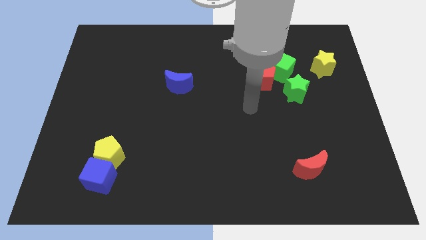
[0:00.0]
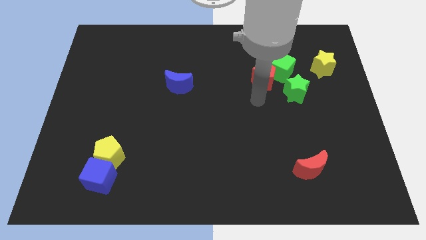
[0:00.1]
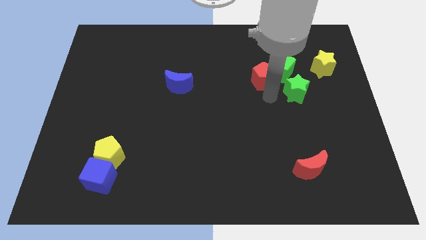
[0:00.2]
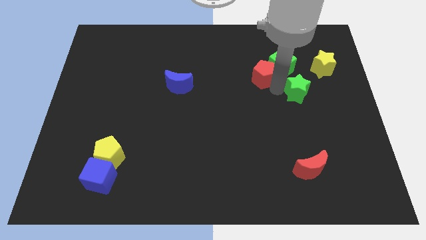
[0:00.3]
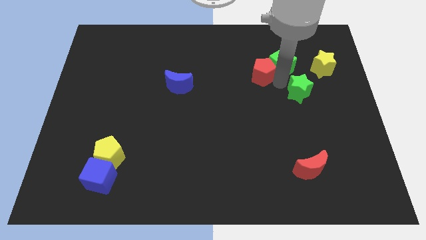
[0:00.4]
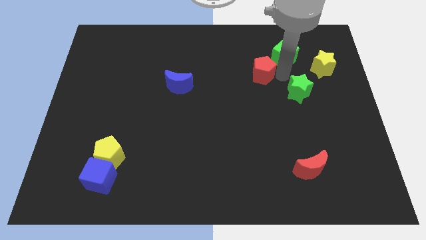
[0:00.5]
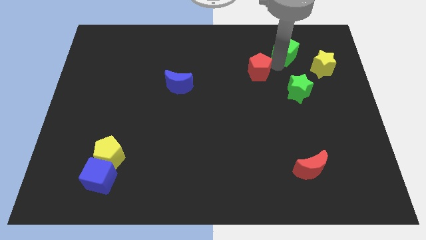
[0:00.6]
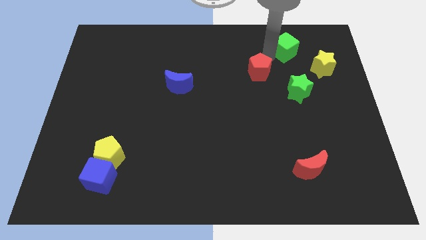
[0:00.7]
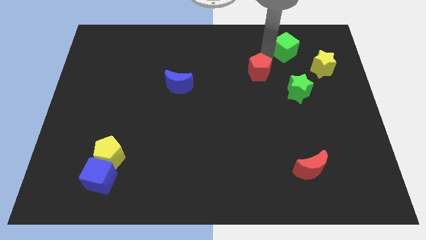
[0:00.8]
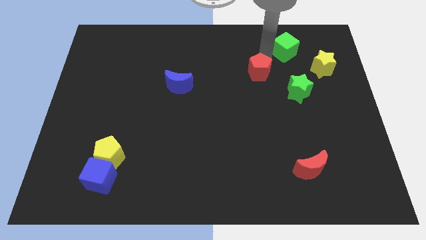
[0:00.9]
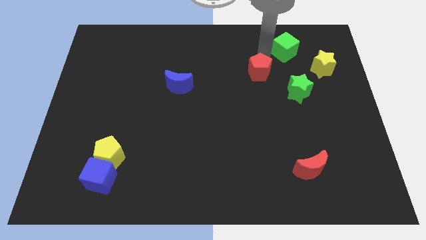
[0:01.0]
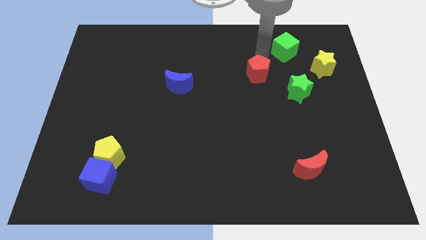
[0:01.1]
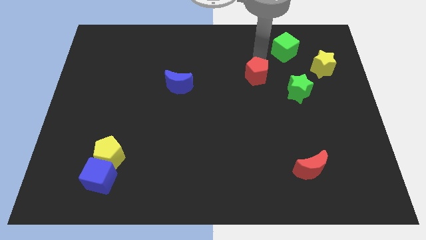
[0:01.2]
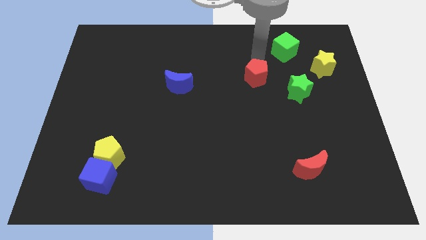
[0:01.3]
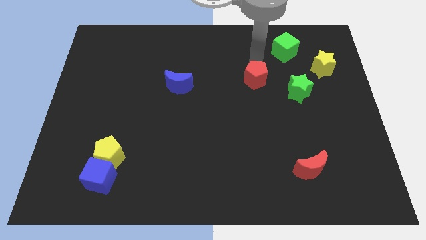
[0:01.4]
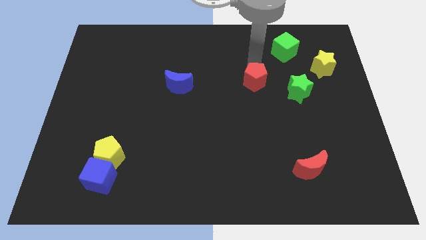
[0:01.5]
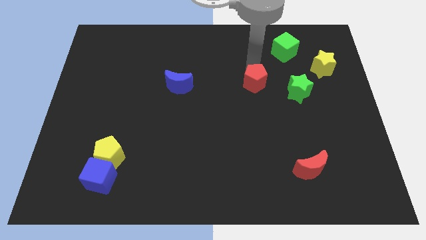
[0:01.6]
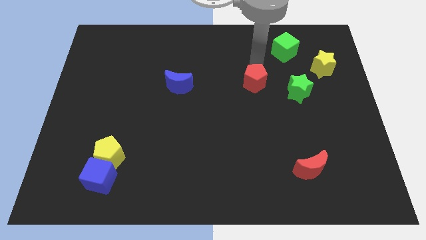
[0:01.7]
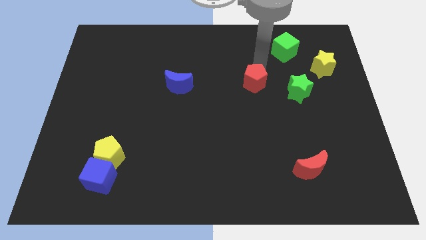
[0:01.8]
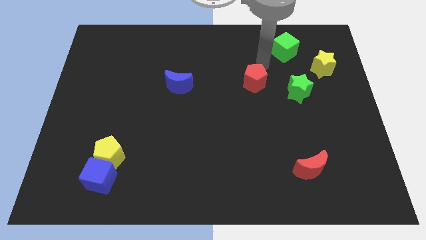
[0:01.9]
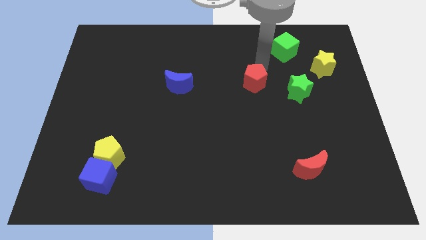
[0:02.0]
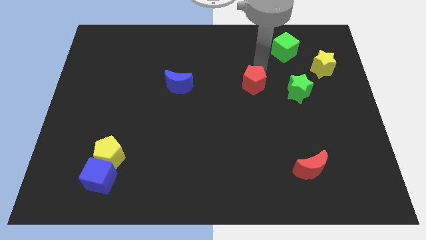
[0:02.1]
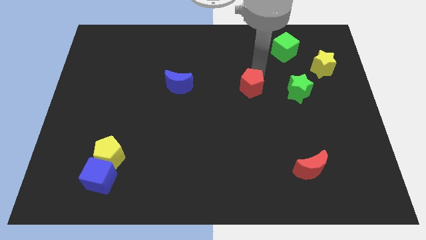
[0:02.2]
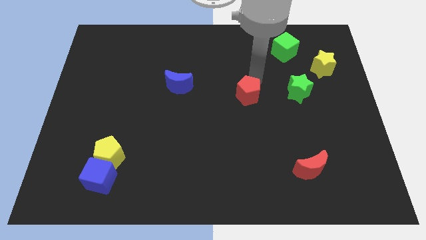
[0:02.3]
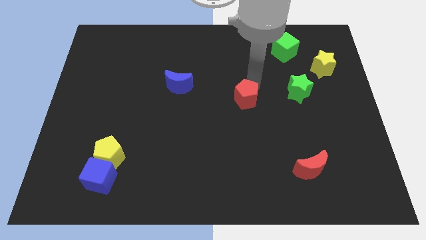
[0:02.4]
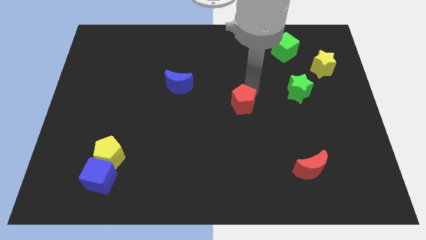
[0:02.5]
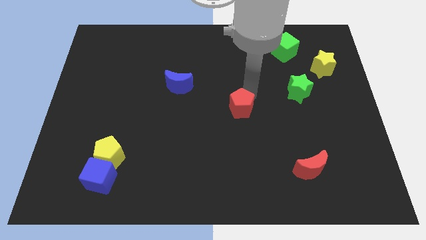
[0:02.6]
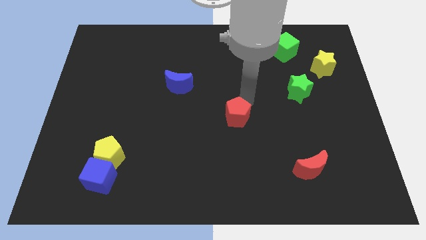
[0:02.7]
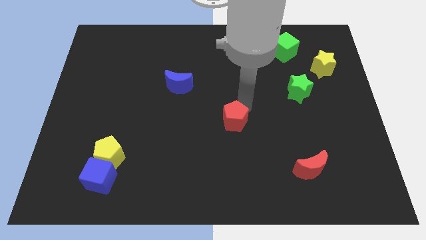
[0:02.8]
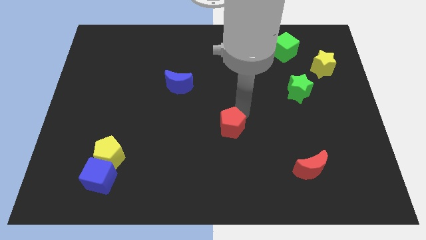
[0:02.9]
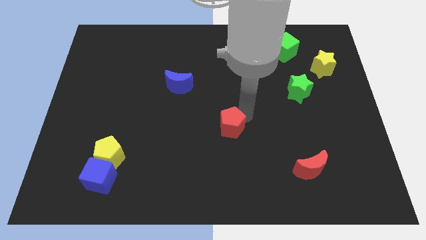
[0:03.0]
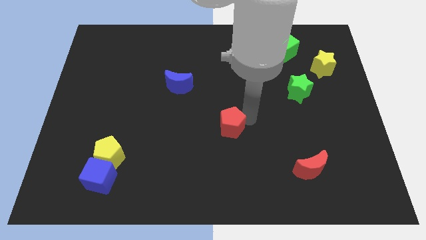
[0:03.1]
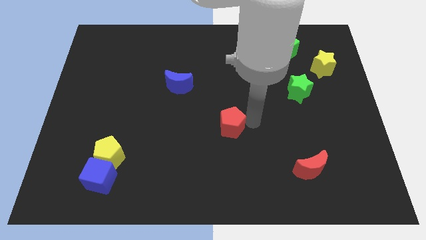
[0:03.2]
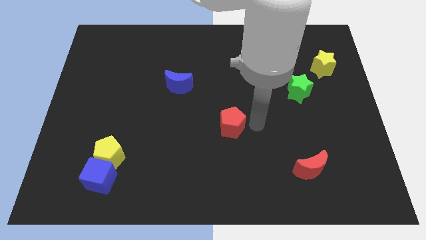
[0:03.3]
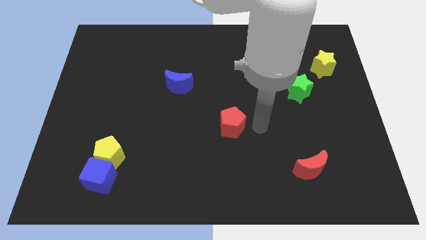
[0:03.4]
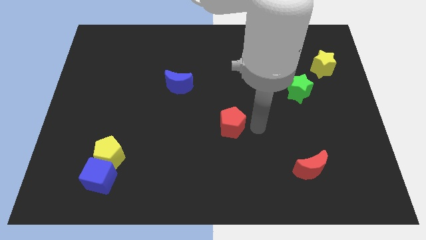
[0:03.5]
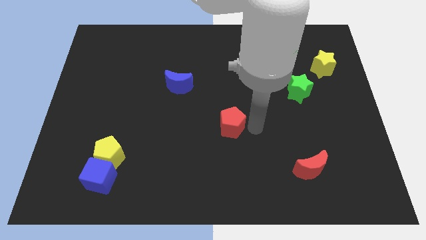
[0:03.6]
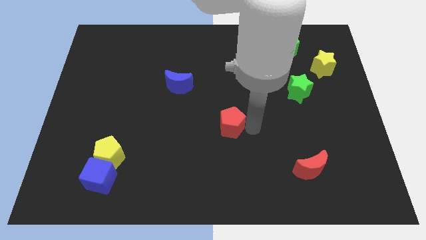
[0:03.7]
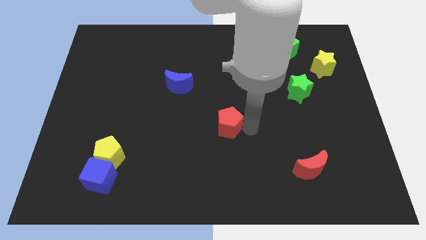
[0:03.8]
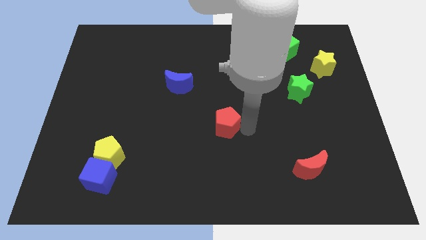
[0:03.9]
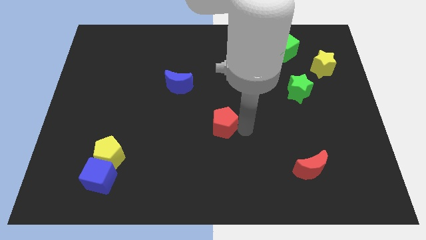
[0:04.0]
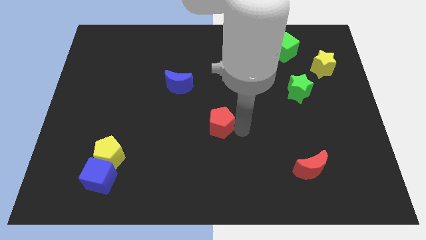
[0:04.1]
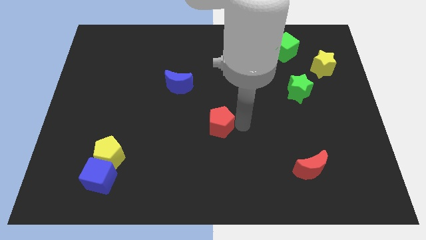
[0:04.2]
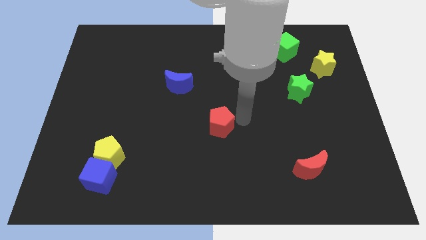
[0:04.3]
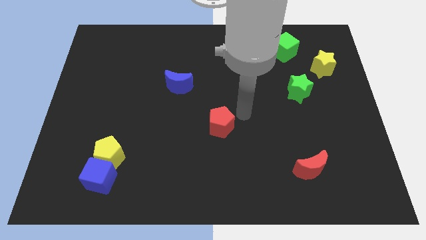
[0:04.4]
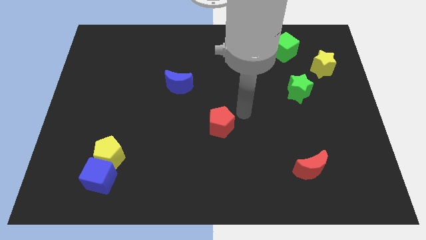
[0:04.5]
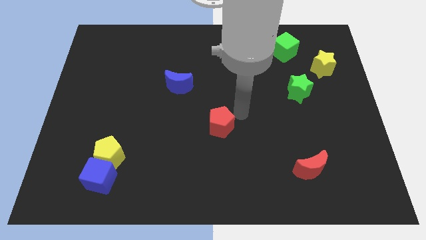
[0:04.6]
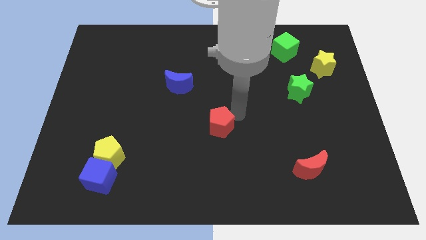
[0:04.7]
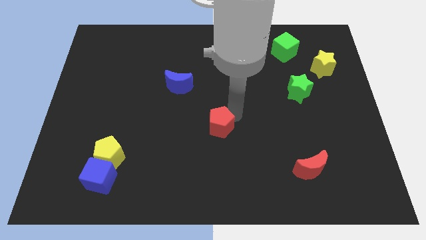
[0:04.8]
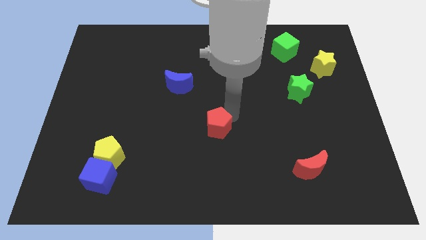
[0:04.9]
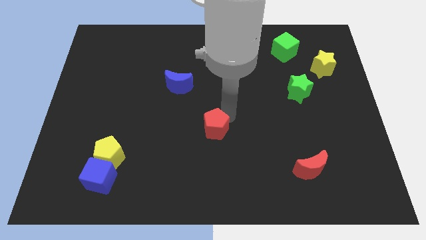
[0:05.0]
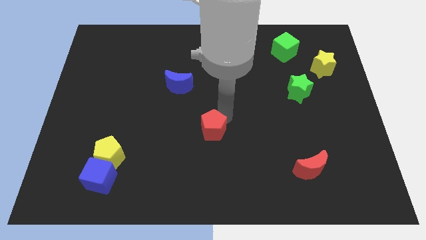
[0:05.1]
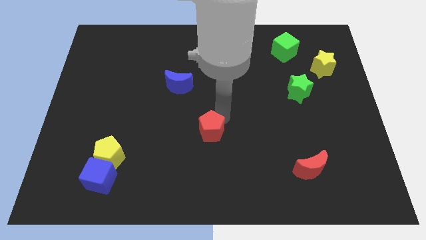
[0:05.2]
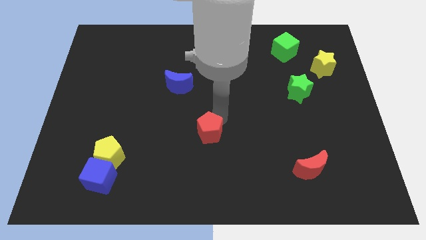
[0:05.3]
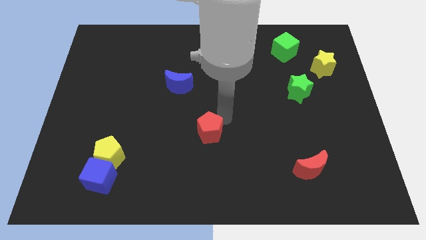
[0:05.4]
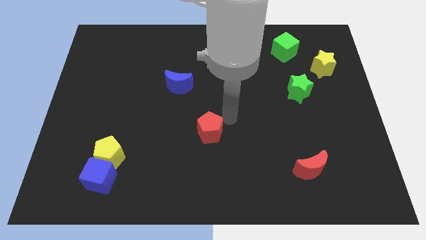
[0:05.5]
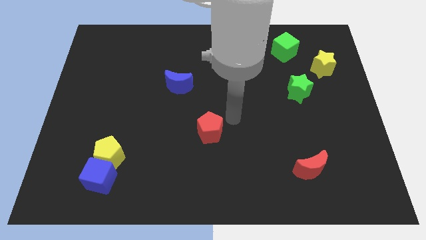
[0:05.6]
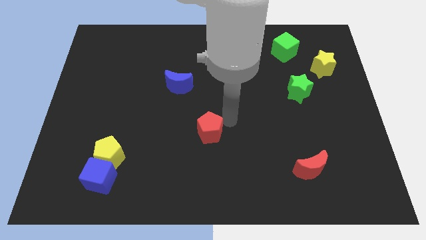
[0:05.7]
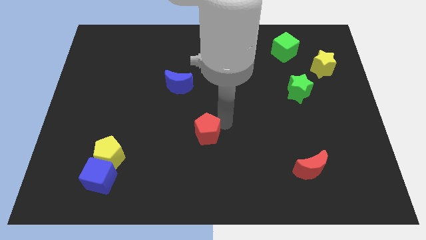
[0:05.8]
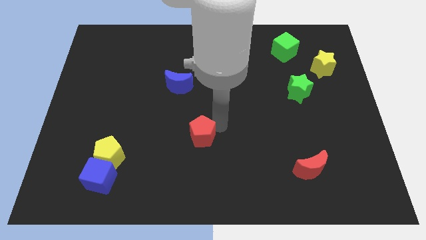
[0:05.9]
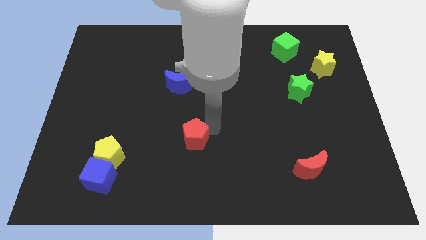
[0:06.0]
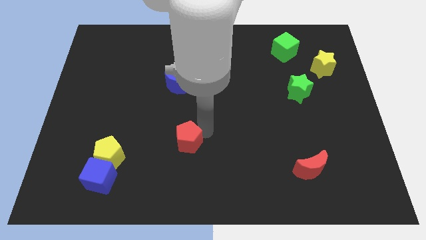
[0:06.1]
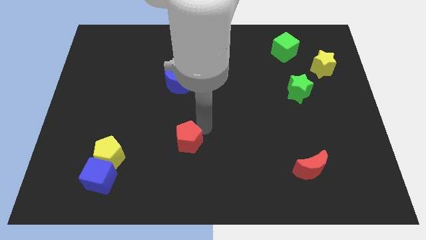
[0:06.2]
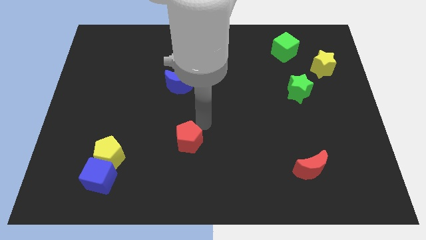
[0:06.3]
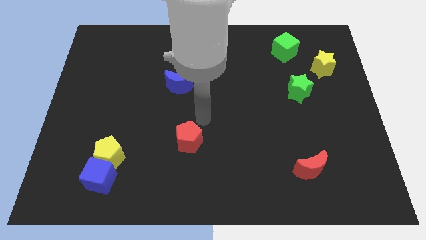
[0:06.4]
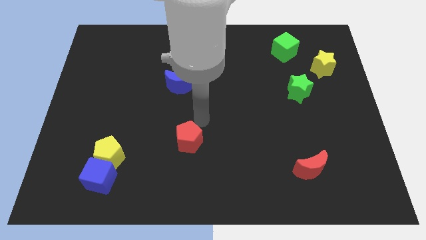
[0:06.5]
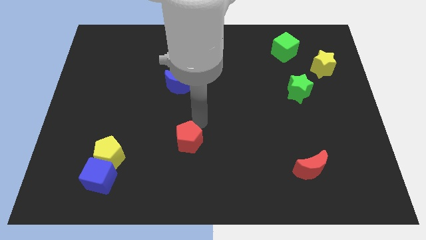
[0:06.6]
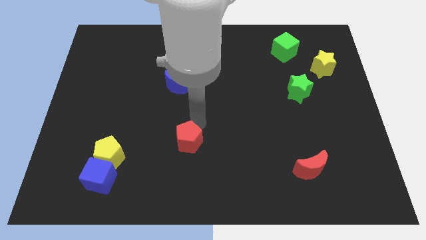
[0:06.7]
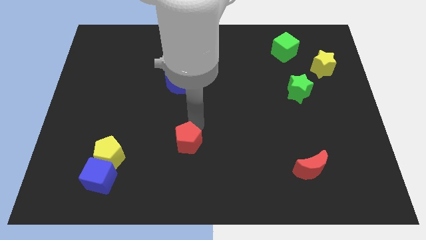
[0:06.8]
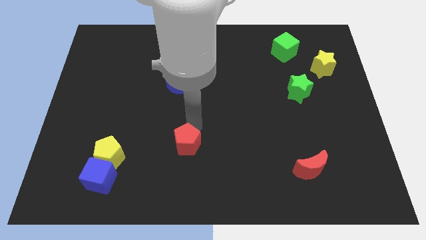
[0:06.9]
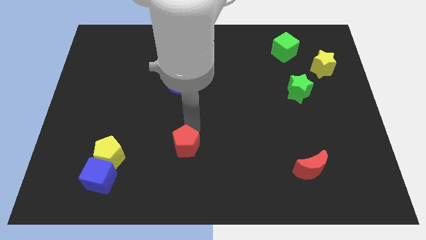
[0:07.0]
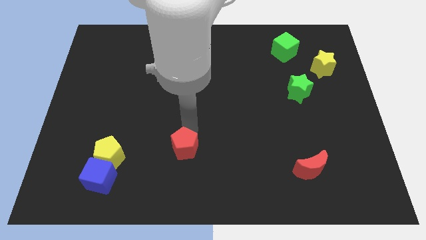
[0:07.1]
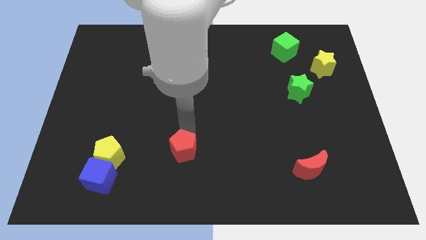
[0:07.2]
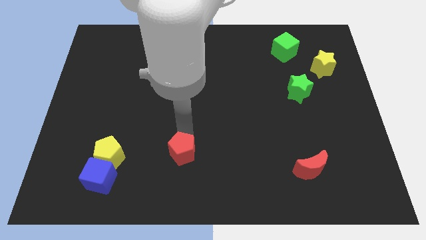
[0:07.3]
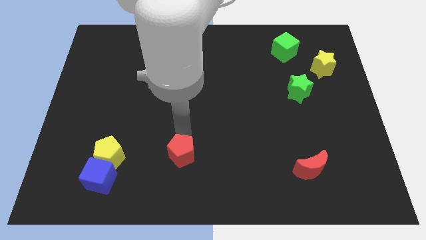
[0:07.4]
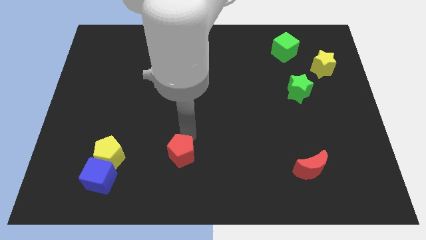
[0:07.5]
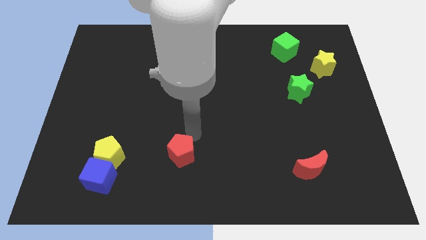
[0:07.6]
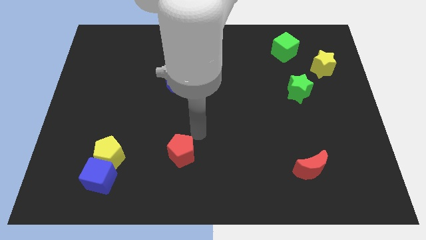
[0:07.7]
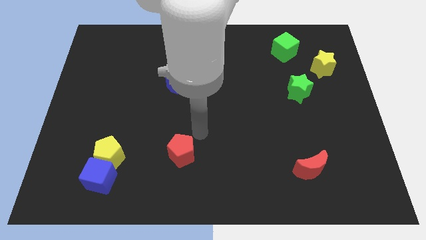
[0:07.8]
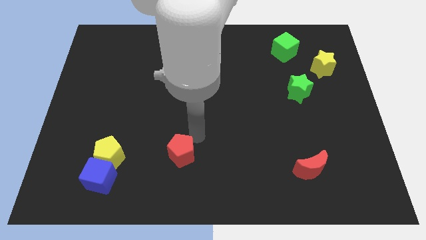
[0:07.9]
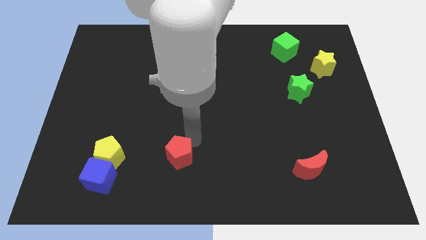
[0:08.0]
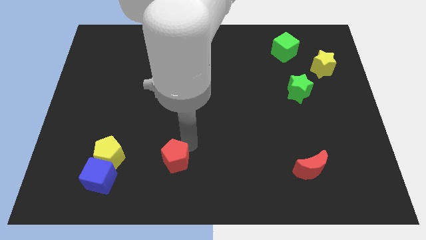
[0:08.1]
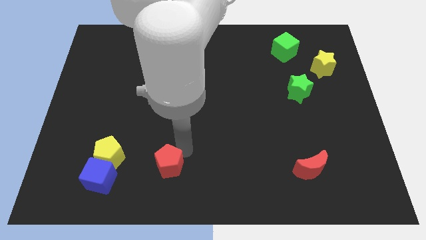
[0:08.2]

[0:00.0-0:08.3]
slide the red pentagon to the right side of the blue cube
